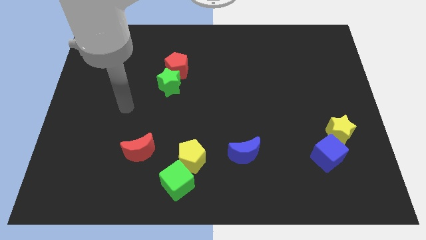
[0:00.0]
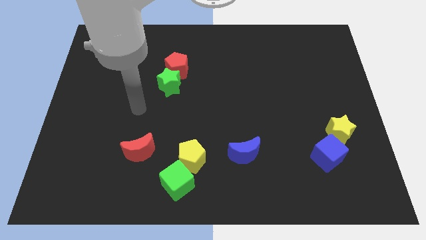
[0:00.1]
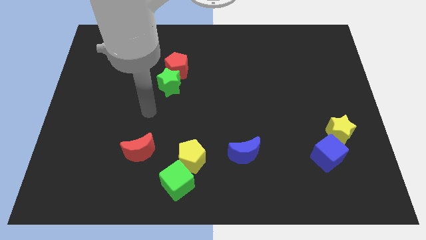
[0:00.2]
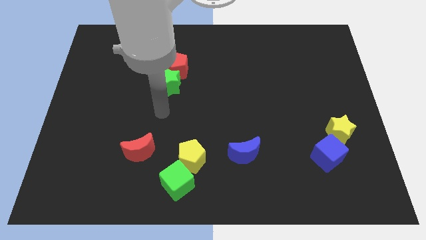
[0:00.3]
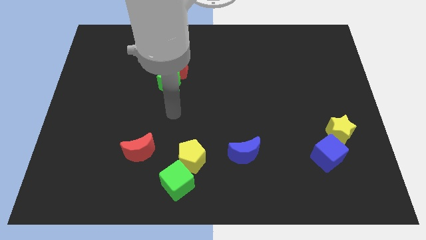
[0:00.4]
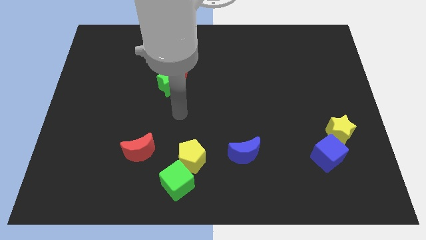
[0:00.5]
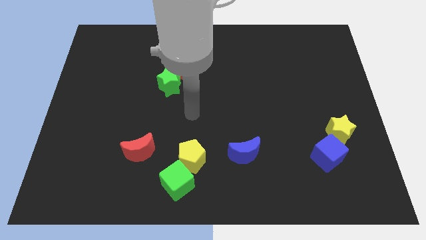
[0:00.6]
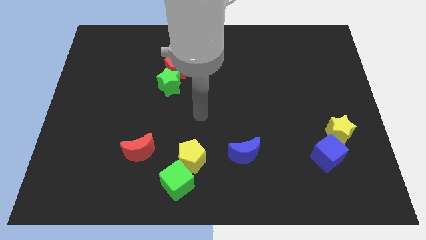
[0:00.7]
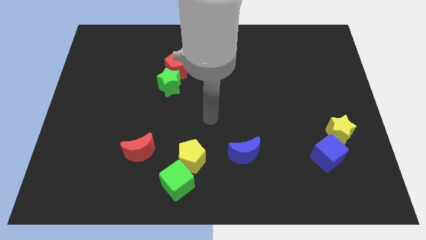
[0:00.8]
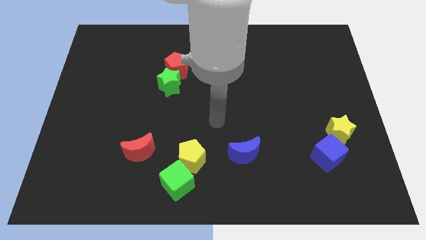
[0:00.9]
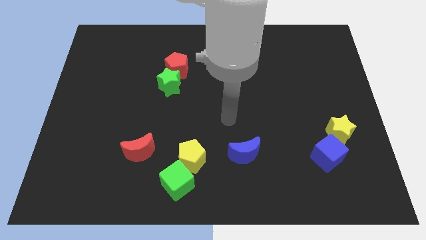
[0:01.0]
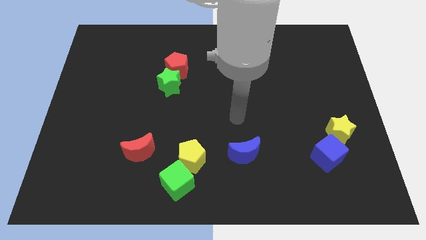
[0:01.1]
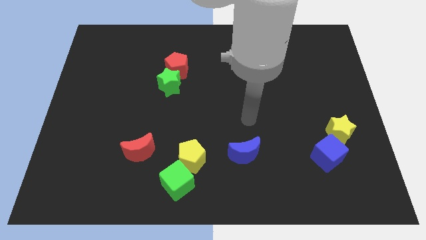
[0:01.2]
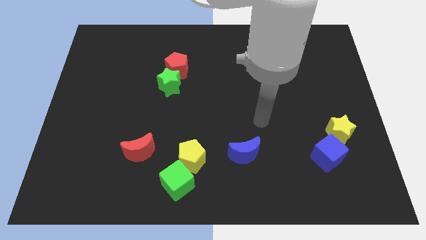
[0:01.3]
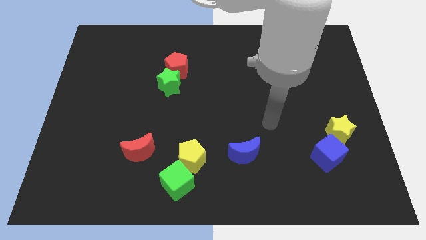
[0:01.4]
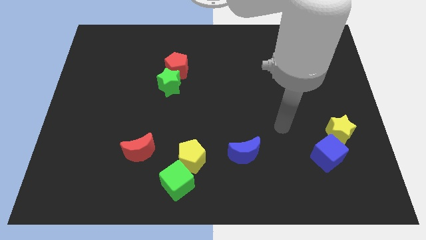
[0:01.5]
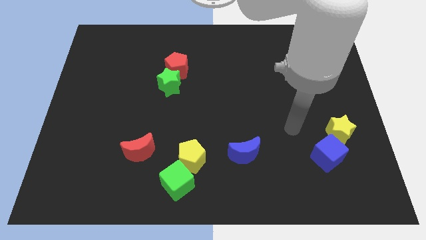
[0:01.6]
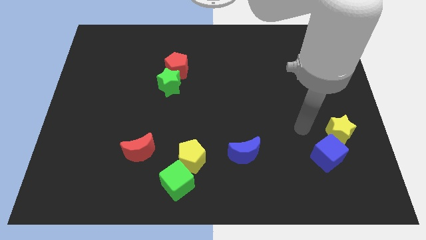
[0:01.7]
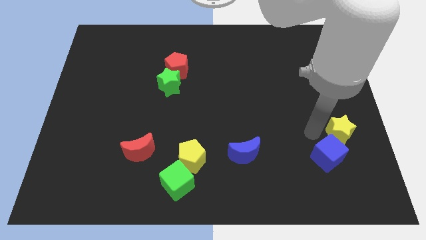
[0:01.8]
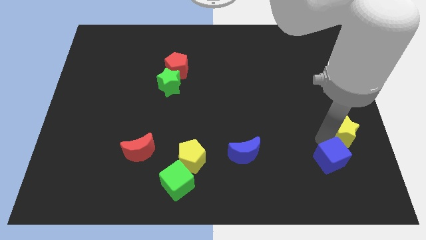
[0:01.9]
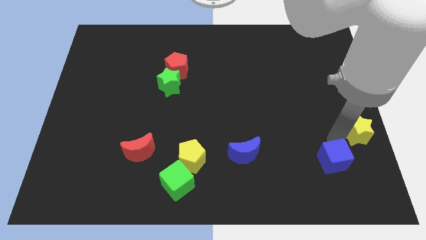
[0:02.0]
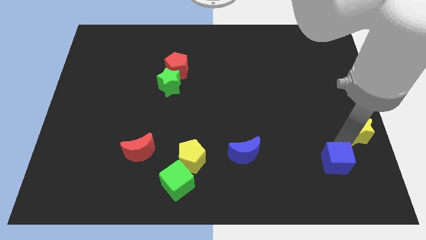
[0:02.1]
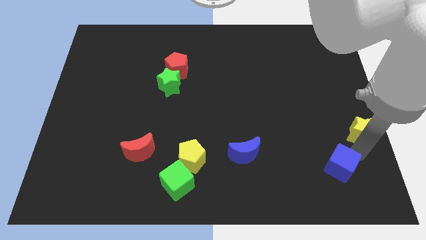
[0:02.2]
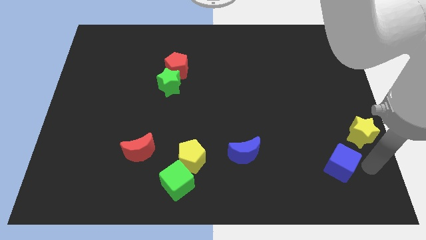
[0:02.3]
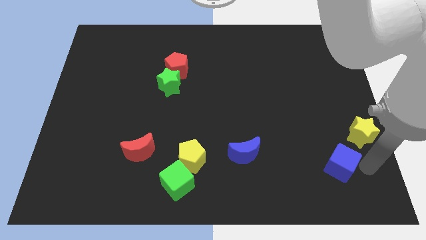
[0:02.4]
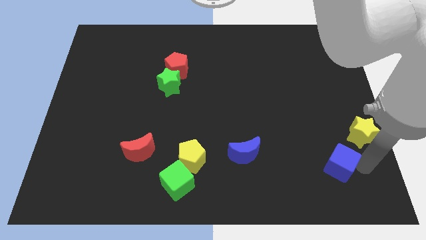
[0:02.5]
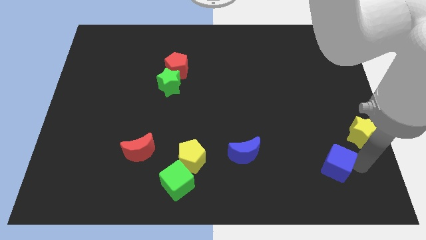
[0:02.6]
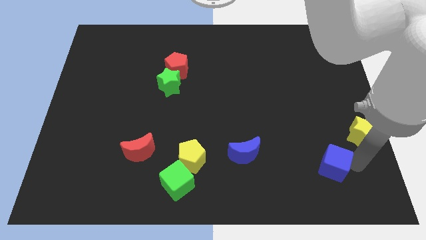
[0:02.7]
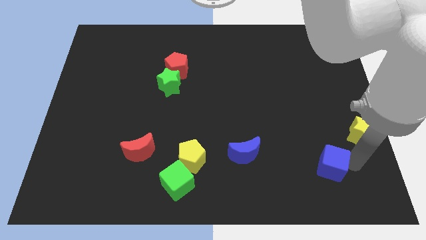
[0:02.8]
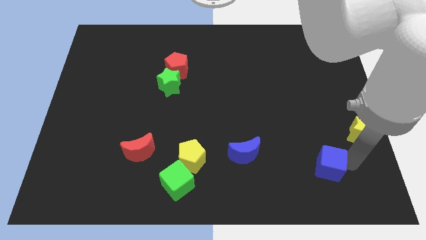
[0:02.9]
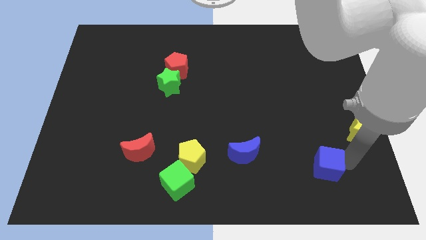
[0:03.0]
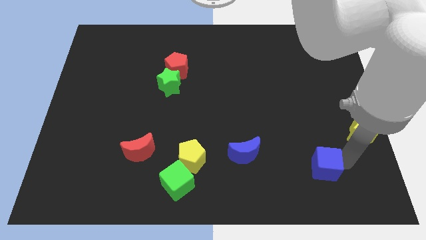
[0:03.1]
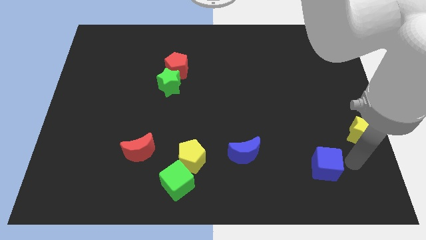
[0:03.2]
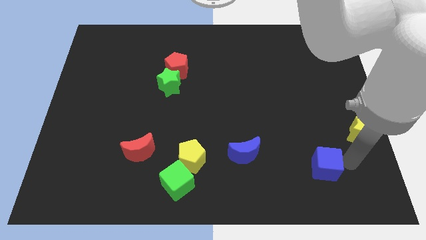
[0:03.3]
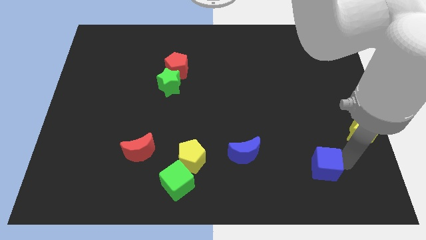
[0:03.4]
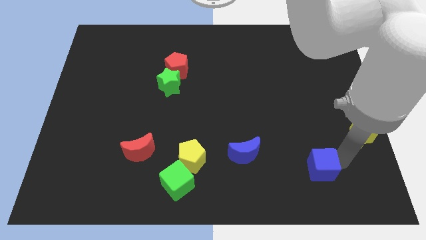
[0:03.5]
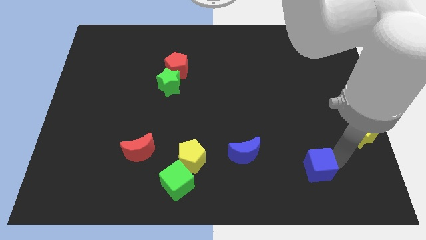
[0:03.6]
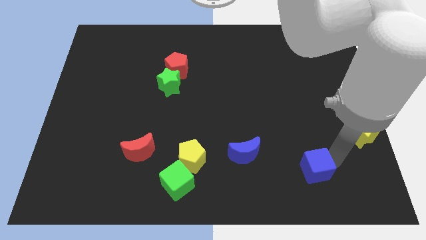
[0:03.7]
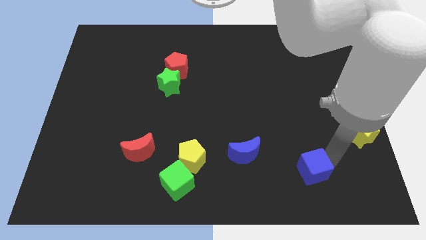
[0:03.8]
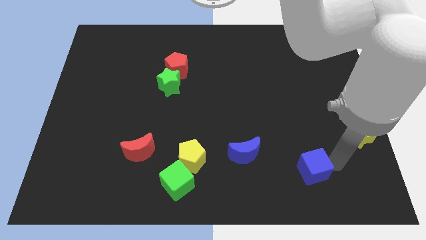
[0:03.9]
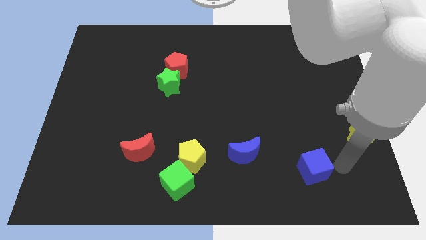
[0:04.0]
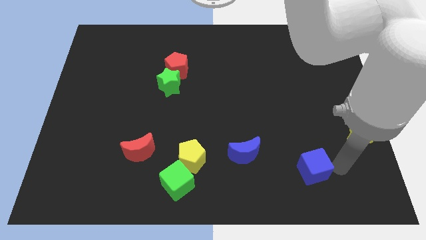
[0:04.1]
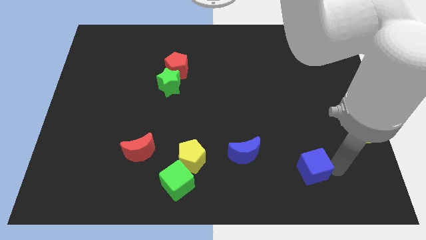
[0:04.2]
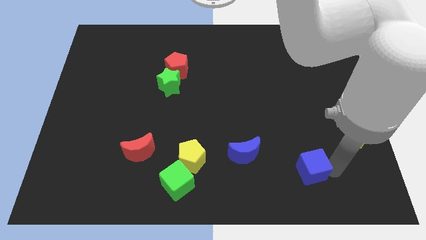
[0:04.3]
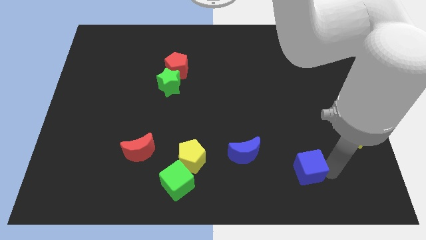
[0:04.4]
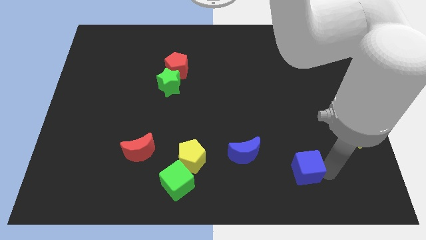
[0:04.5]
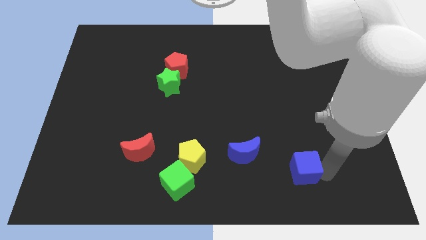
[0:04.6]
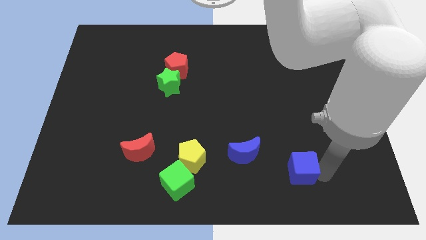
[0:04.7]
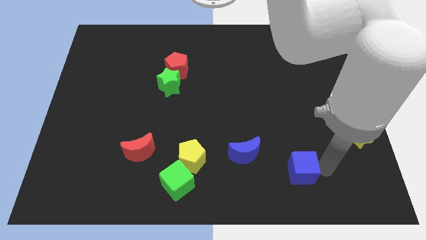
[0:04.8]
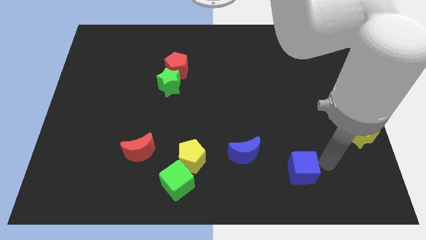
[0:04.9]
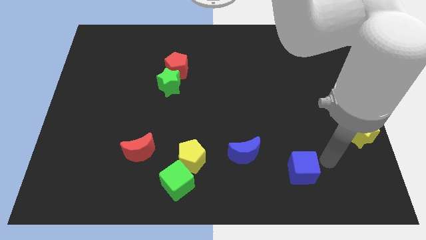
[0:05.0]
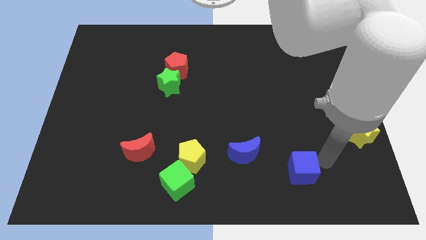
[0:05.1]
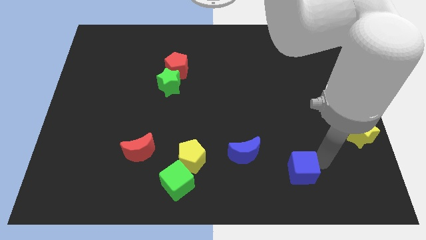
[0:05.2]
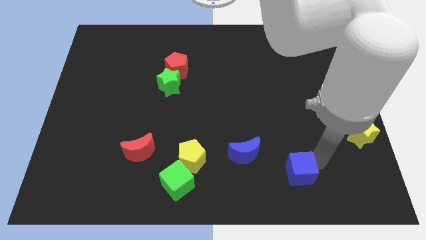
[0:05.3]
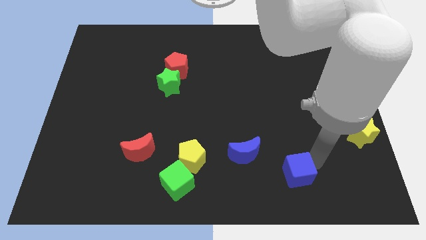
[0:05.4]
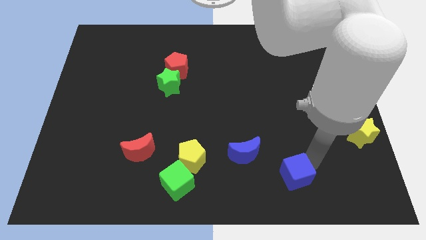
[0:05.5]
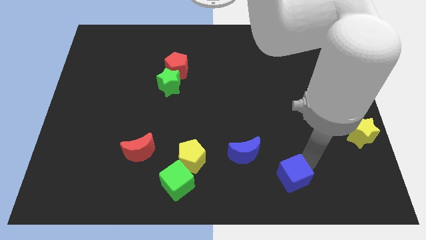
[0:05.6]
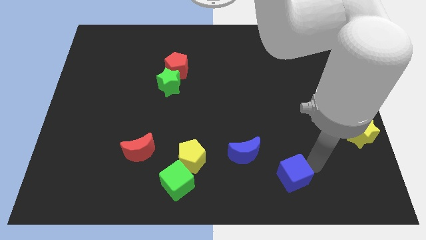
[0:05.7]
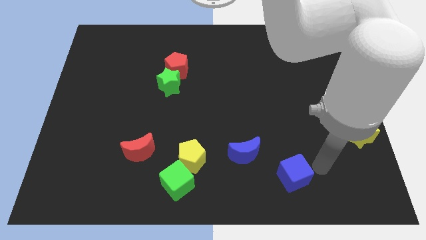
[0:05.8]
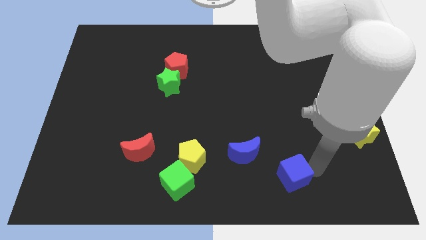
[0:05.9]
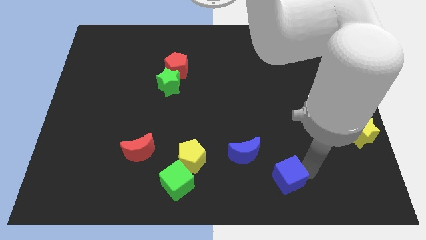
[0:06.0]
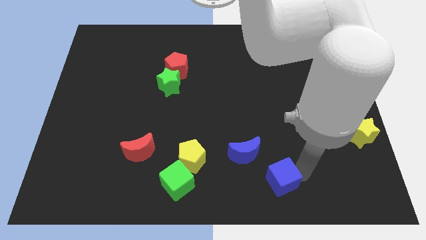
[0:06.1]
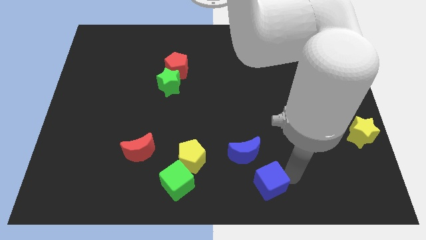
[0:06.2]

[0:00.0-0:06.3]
push the blue cube to the bottom

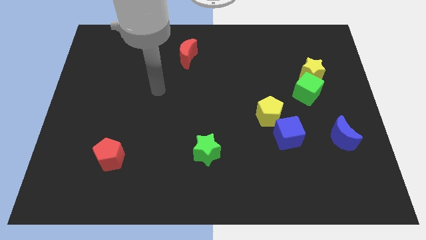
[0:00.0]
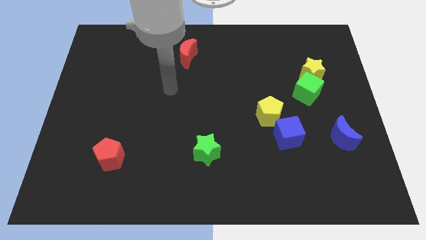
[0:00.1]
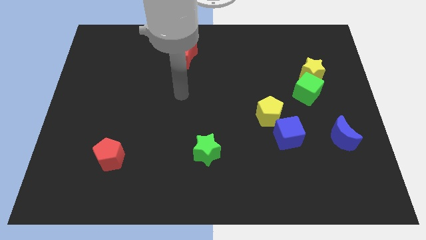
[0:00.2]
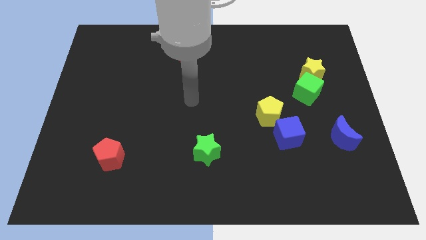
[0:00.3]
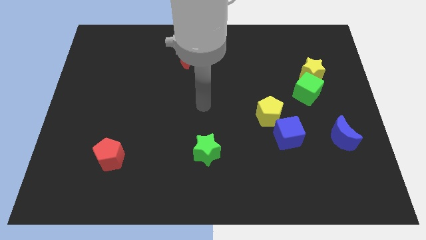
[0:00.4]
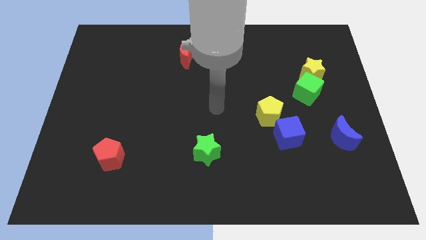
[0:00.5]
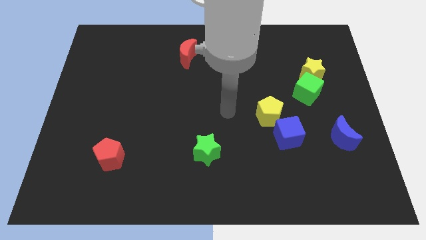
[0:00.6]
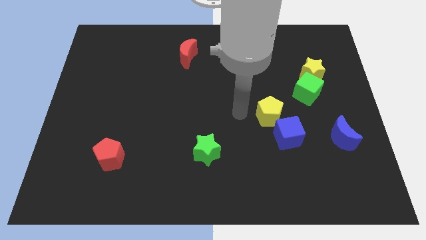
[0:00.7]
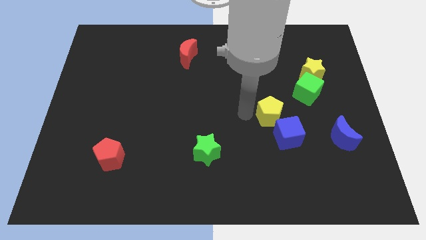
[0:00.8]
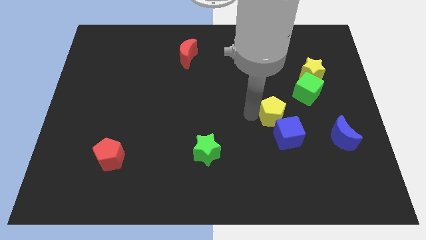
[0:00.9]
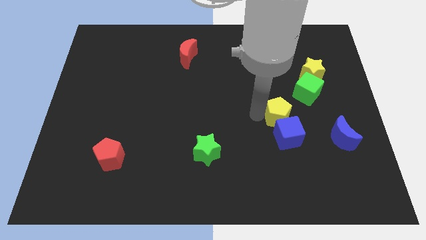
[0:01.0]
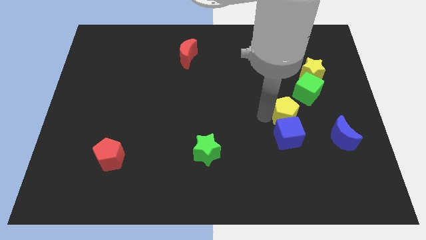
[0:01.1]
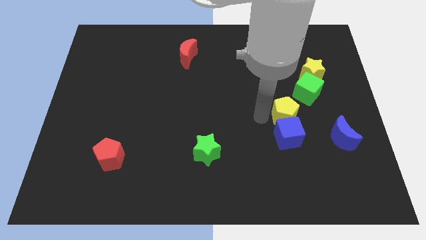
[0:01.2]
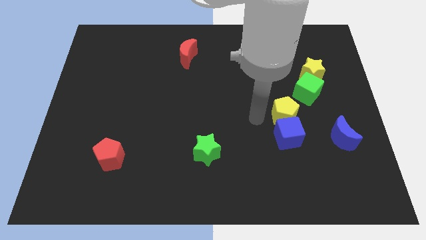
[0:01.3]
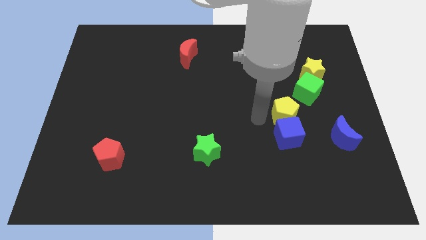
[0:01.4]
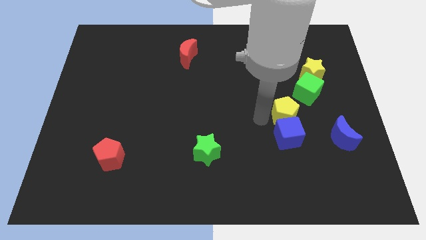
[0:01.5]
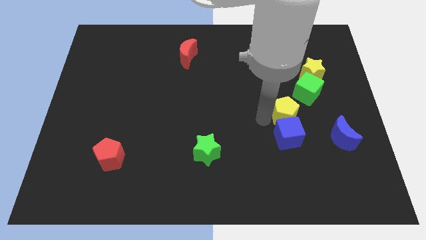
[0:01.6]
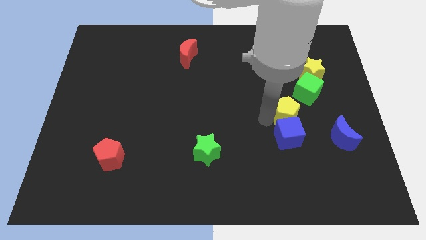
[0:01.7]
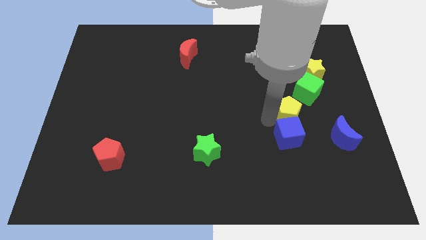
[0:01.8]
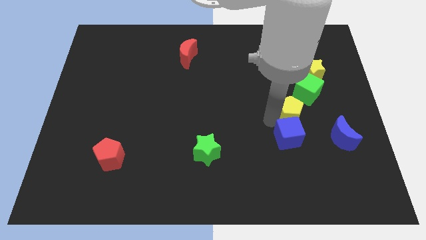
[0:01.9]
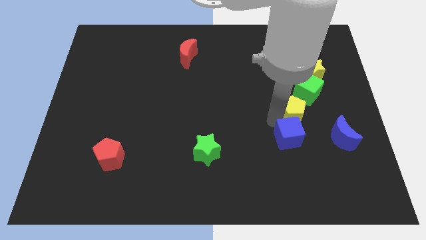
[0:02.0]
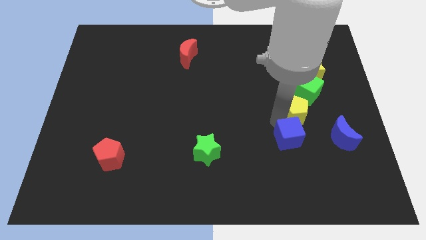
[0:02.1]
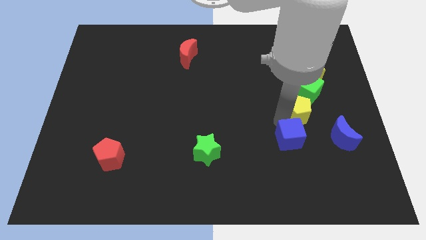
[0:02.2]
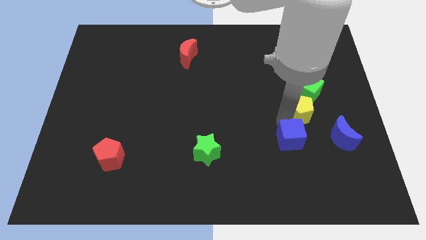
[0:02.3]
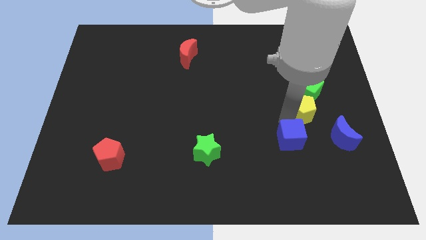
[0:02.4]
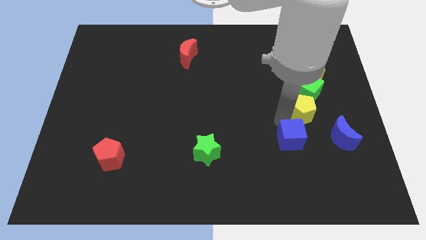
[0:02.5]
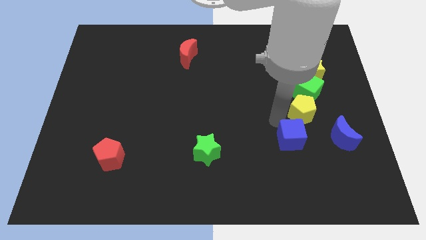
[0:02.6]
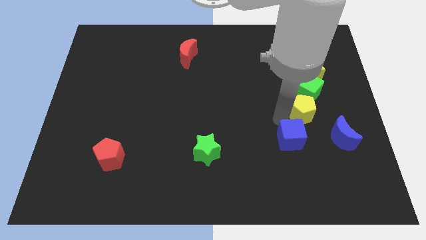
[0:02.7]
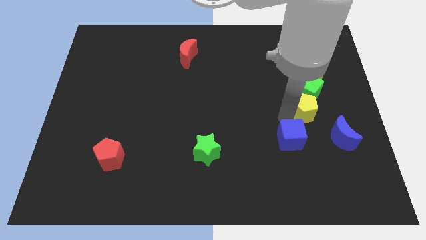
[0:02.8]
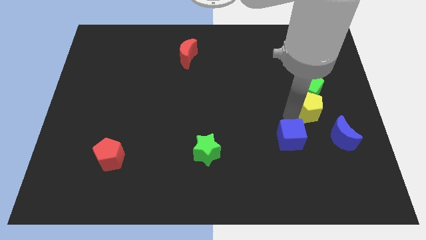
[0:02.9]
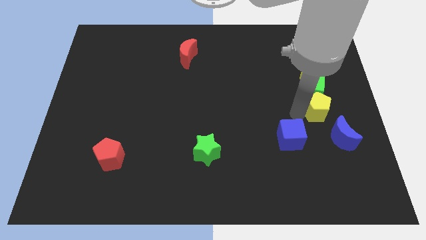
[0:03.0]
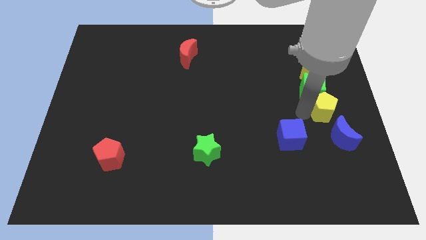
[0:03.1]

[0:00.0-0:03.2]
put the yellow pentagon to the center right
